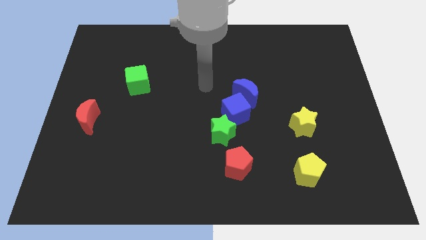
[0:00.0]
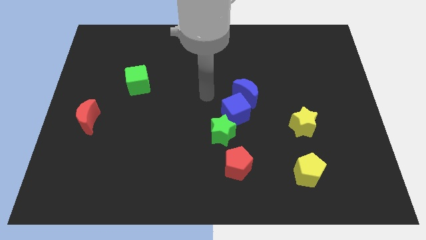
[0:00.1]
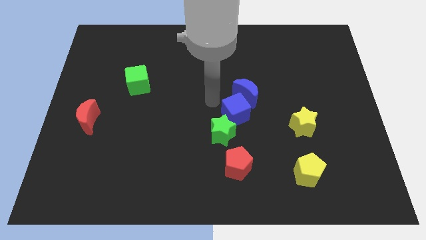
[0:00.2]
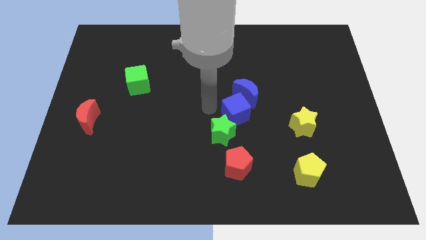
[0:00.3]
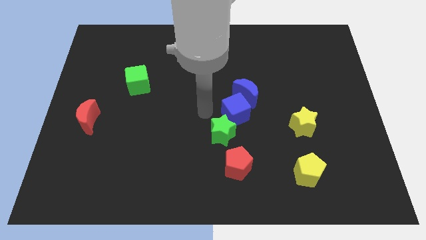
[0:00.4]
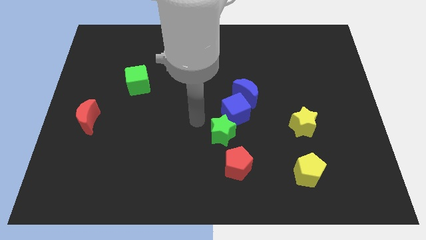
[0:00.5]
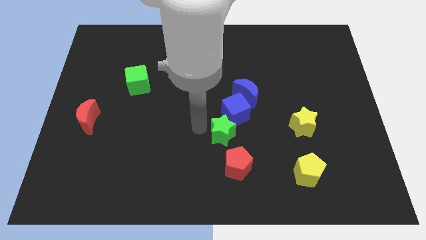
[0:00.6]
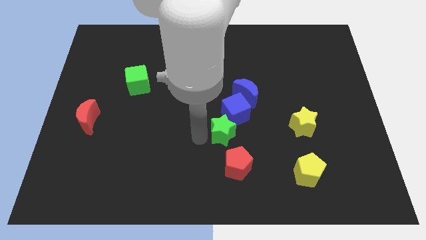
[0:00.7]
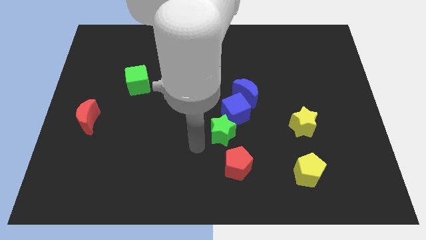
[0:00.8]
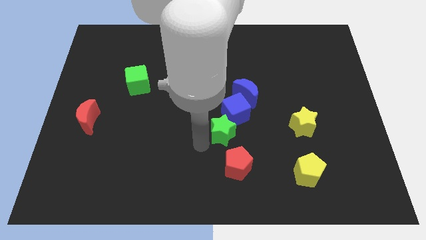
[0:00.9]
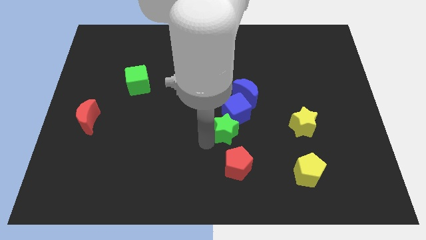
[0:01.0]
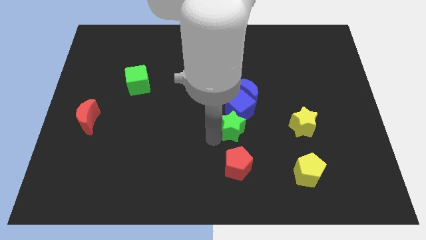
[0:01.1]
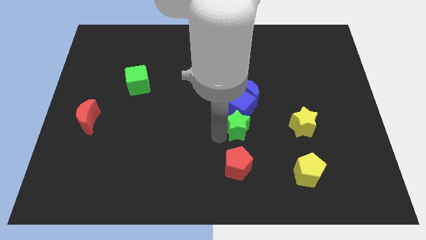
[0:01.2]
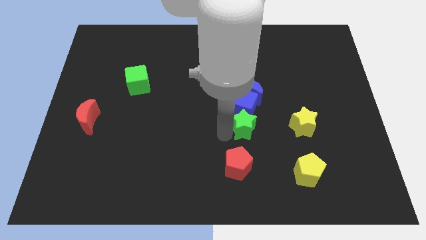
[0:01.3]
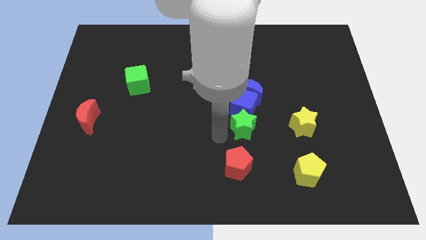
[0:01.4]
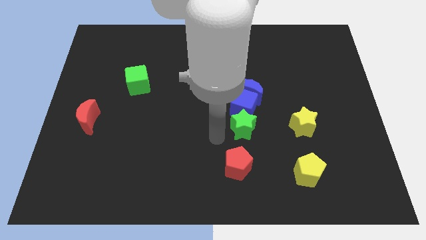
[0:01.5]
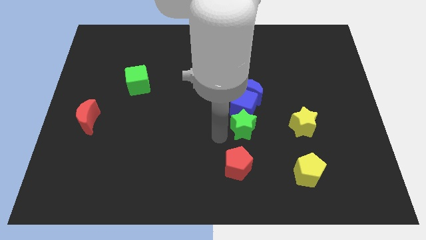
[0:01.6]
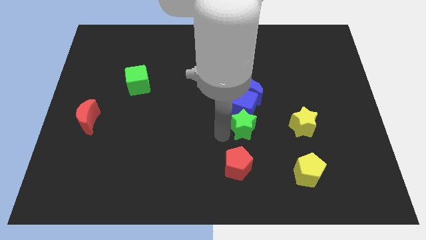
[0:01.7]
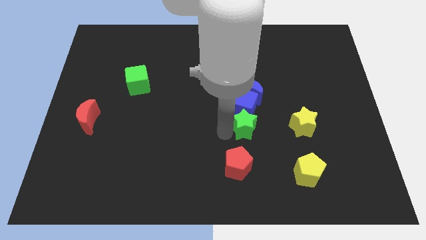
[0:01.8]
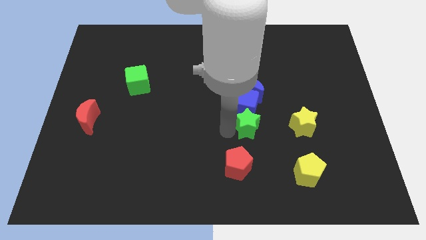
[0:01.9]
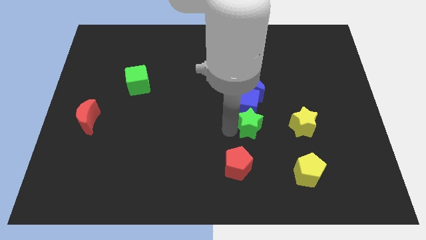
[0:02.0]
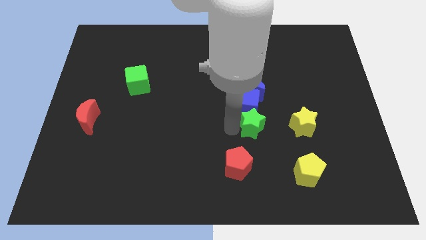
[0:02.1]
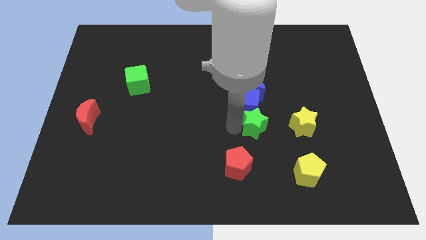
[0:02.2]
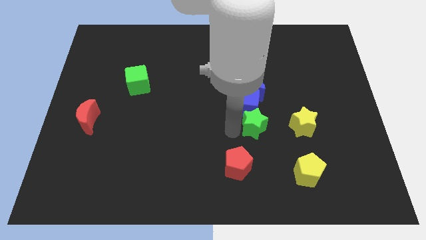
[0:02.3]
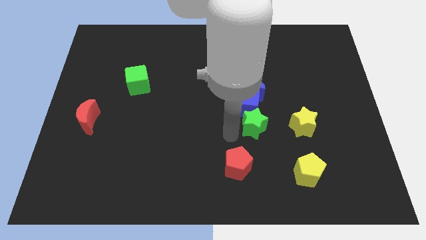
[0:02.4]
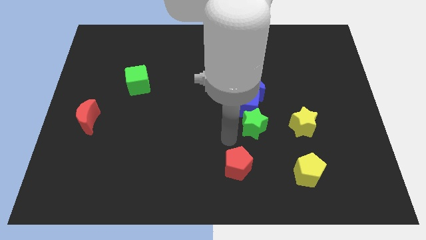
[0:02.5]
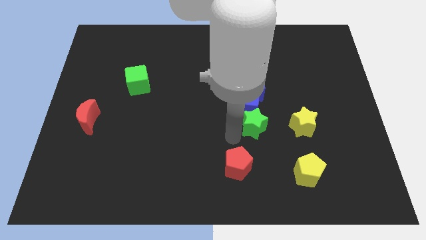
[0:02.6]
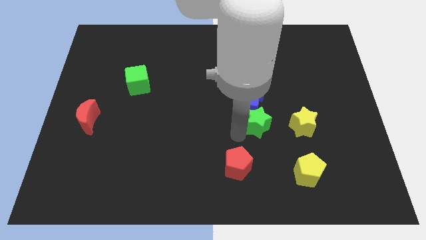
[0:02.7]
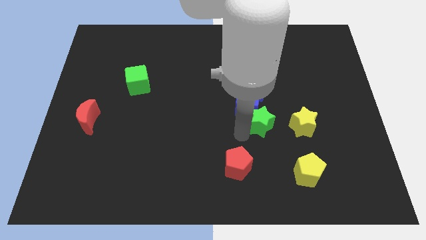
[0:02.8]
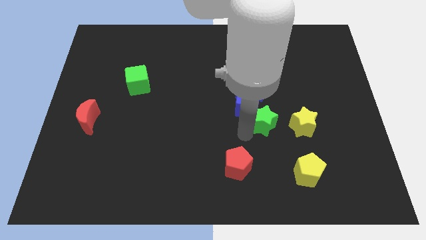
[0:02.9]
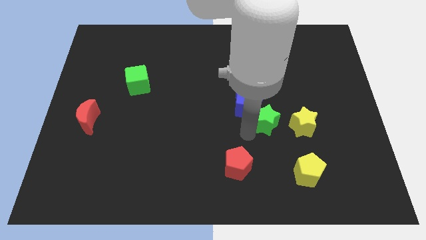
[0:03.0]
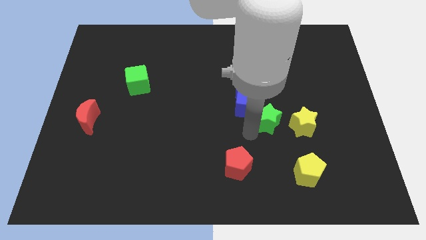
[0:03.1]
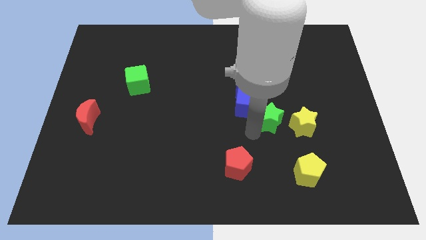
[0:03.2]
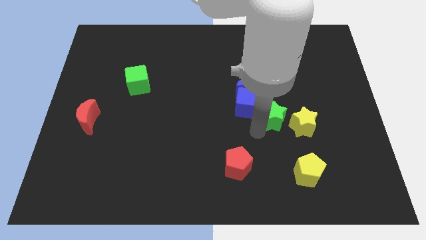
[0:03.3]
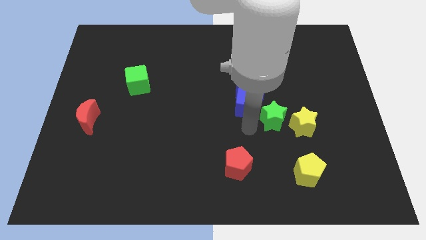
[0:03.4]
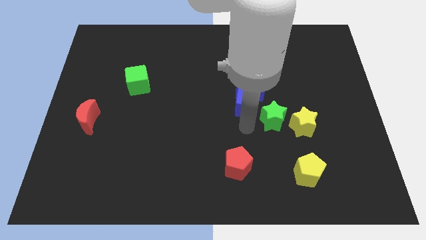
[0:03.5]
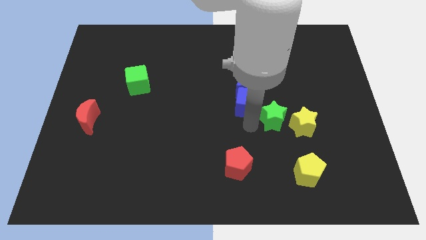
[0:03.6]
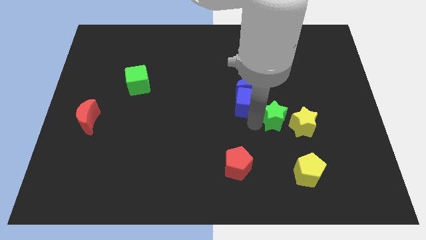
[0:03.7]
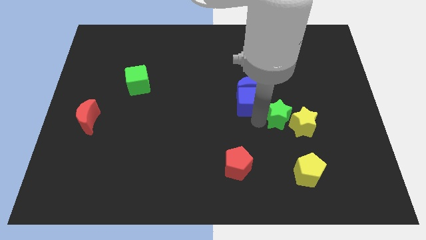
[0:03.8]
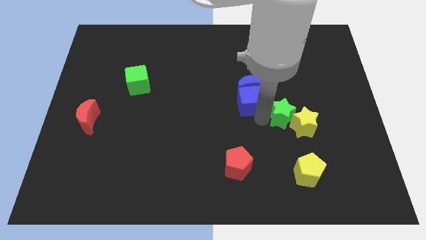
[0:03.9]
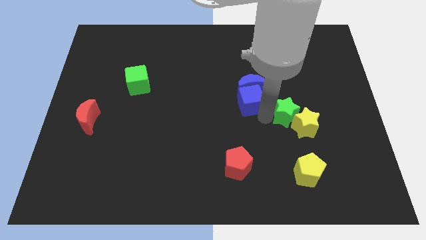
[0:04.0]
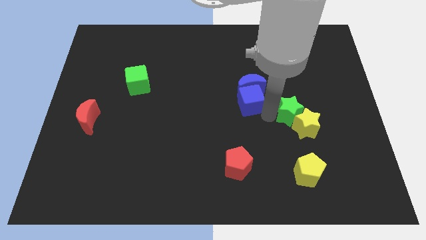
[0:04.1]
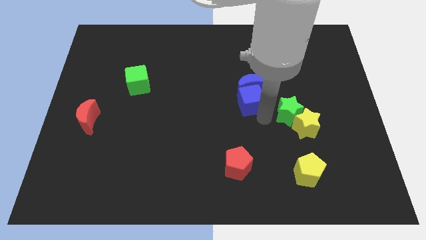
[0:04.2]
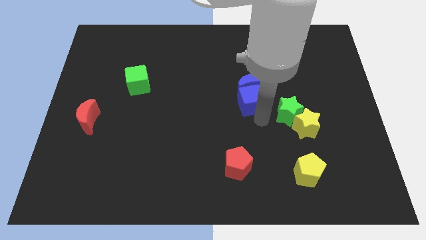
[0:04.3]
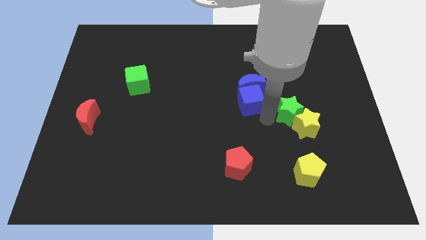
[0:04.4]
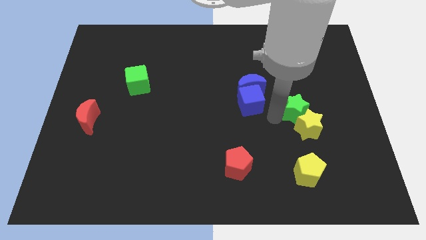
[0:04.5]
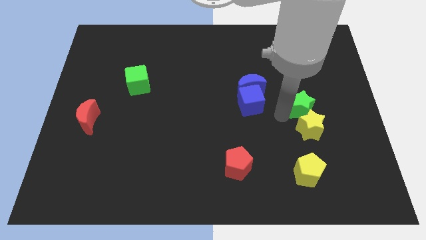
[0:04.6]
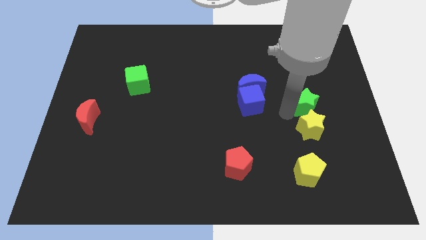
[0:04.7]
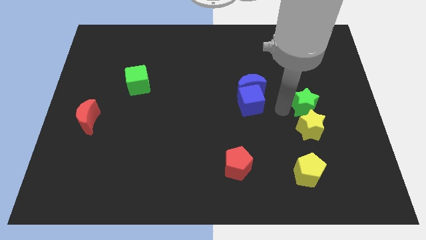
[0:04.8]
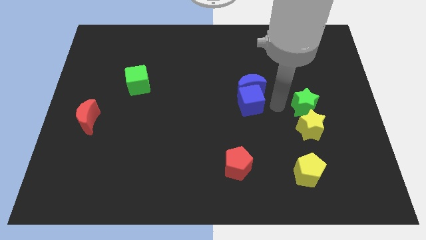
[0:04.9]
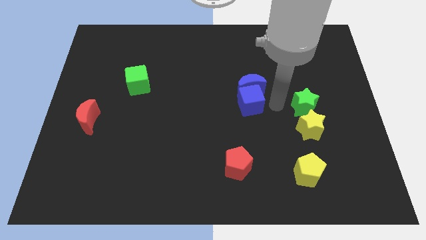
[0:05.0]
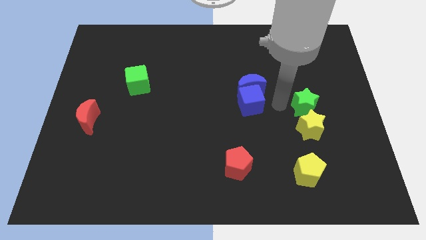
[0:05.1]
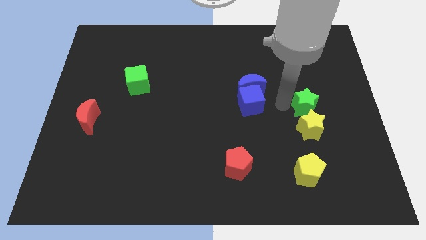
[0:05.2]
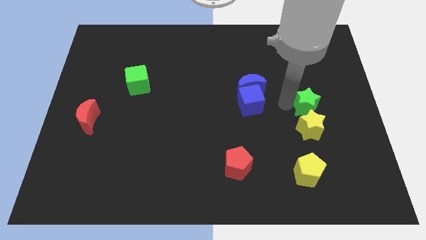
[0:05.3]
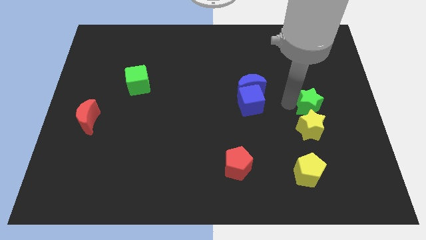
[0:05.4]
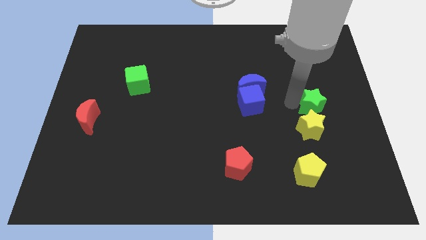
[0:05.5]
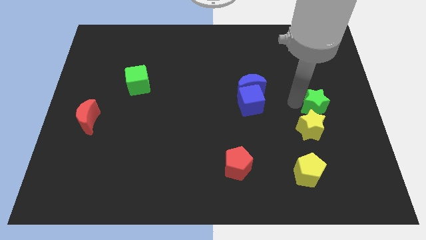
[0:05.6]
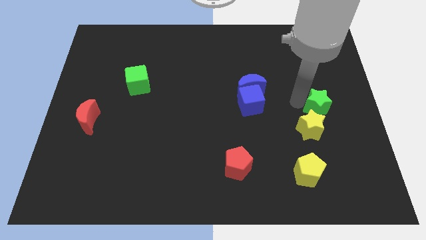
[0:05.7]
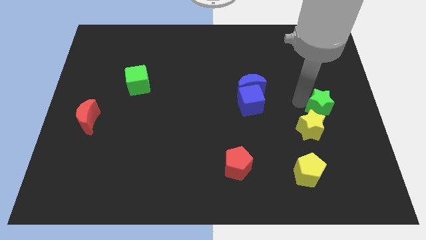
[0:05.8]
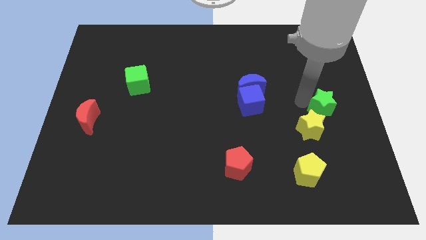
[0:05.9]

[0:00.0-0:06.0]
slide the green star to the right side
